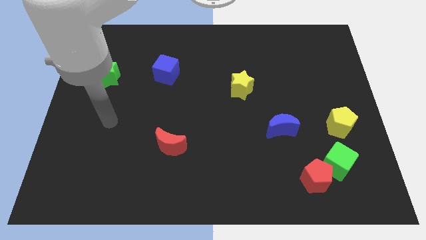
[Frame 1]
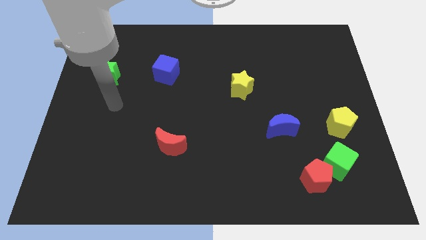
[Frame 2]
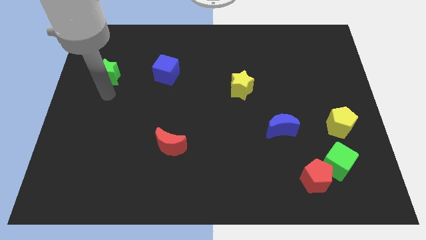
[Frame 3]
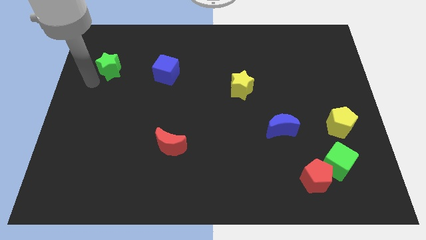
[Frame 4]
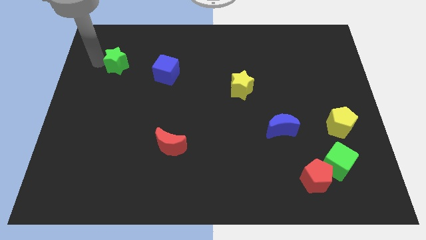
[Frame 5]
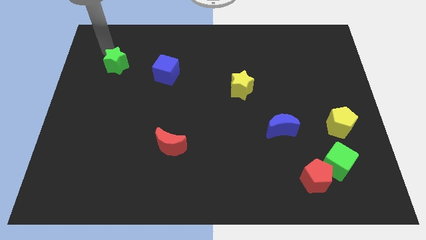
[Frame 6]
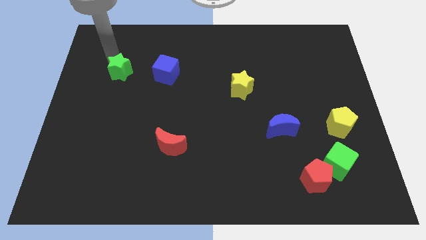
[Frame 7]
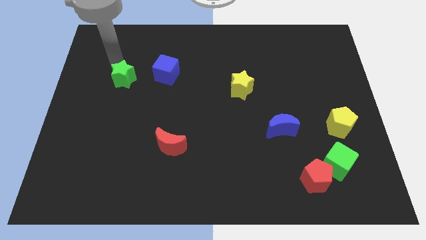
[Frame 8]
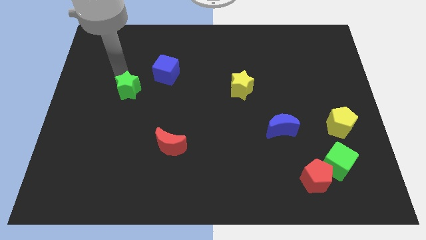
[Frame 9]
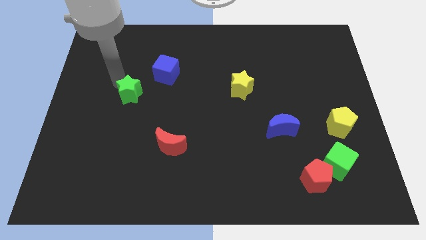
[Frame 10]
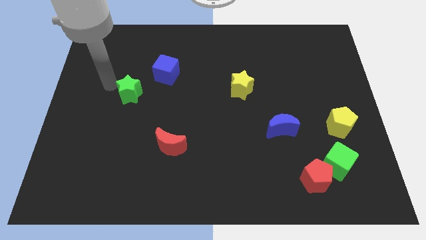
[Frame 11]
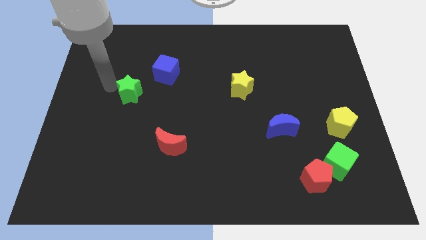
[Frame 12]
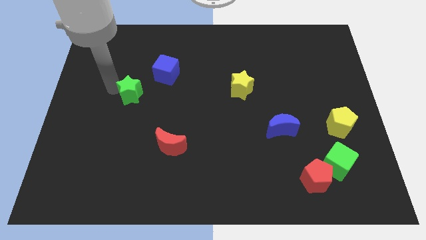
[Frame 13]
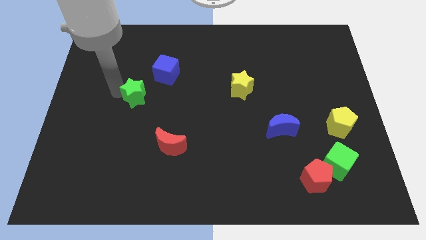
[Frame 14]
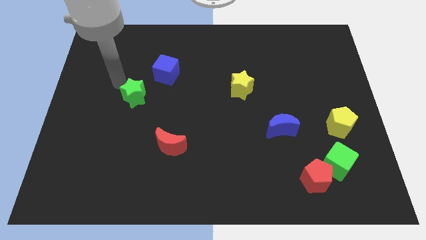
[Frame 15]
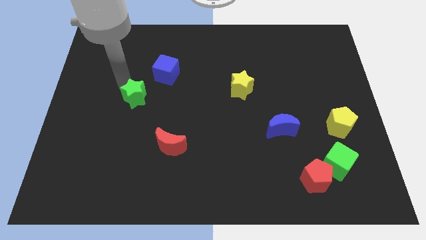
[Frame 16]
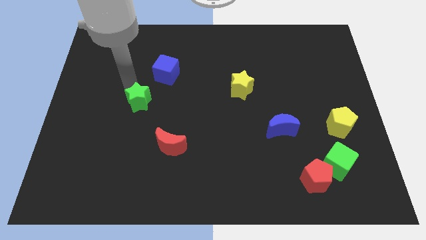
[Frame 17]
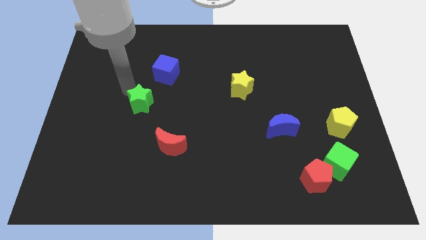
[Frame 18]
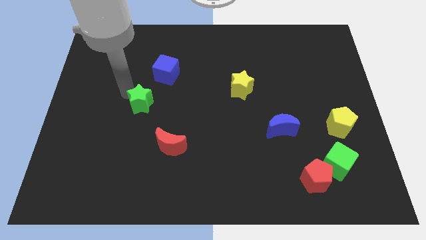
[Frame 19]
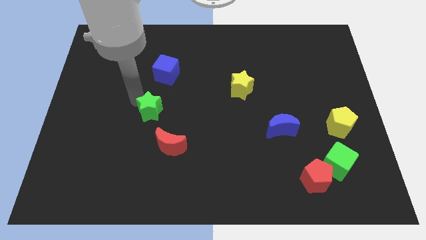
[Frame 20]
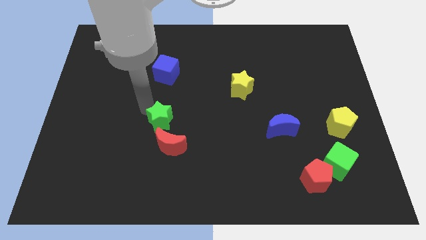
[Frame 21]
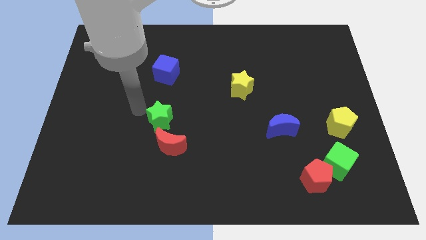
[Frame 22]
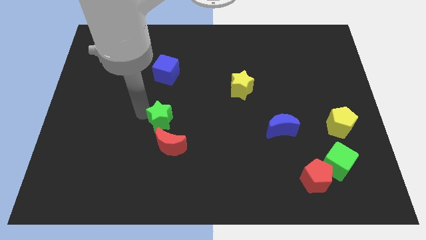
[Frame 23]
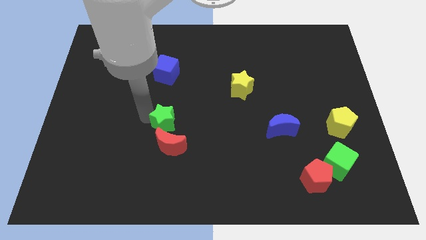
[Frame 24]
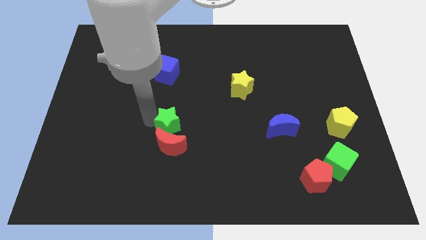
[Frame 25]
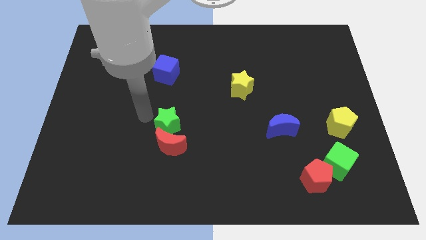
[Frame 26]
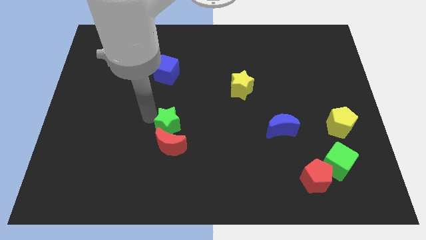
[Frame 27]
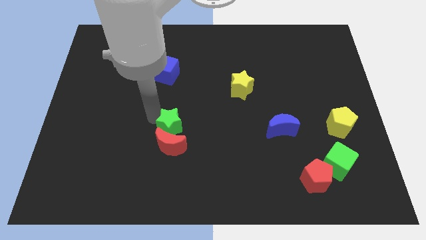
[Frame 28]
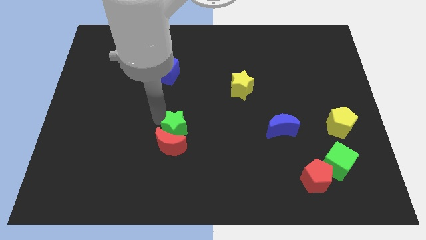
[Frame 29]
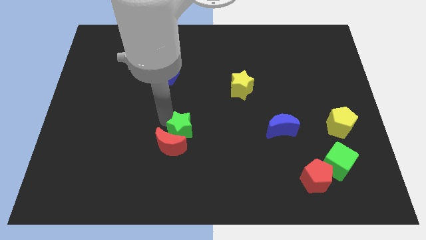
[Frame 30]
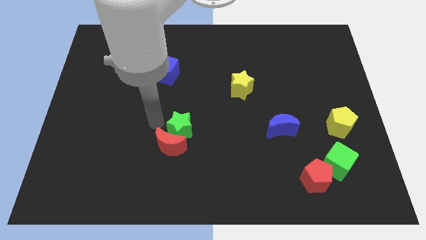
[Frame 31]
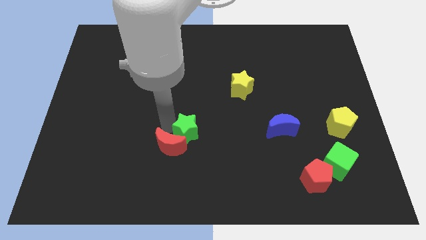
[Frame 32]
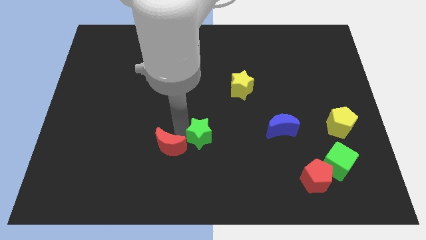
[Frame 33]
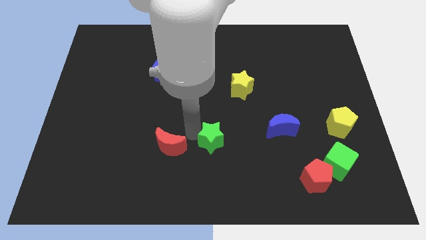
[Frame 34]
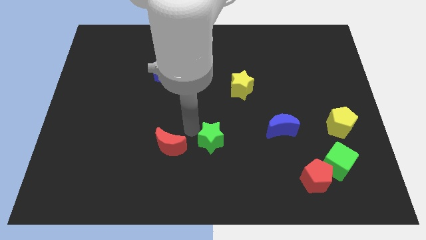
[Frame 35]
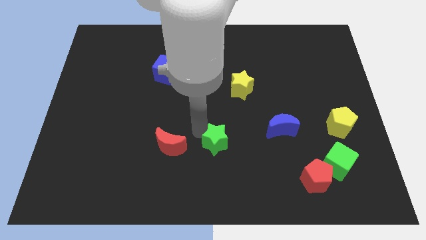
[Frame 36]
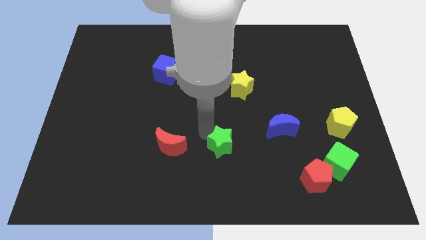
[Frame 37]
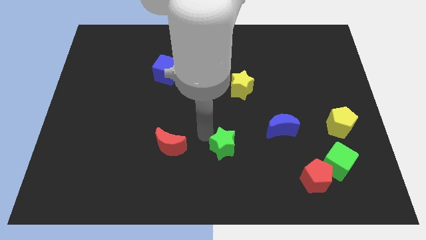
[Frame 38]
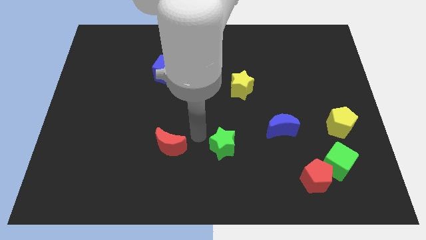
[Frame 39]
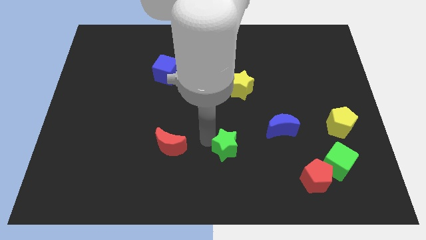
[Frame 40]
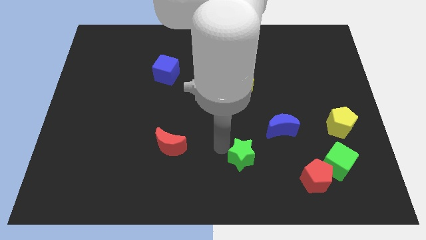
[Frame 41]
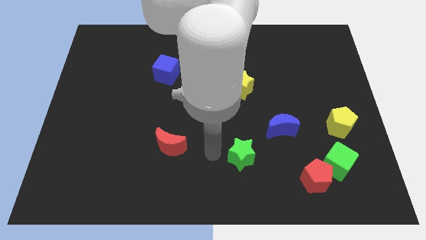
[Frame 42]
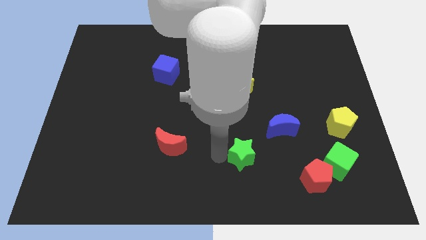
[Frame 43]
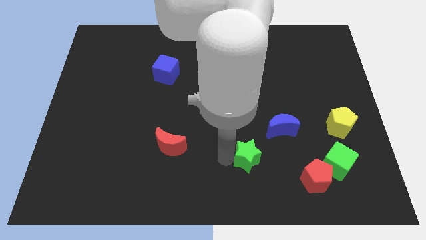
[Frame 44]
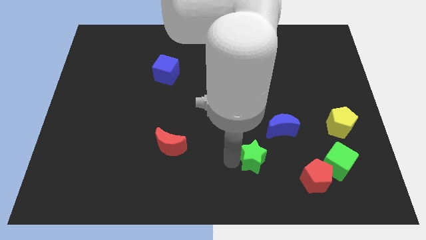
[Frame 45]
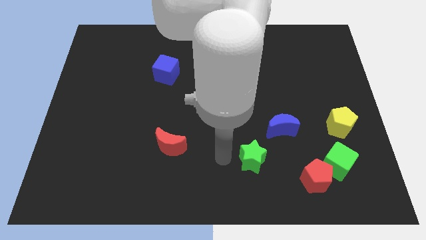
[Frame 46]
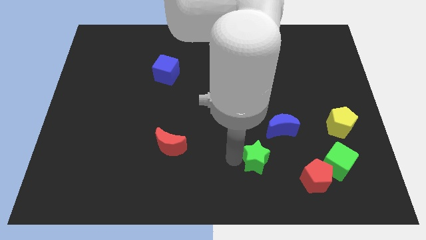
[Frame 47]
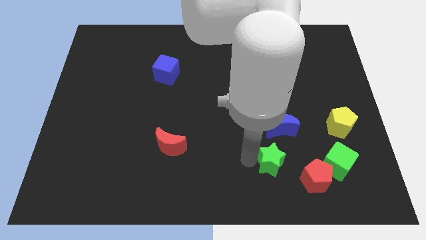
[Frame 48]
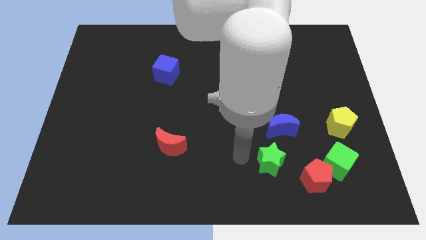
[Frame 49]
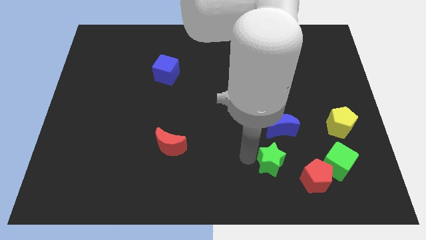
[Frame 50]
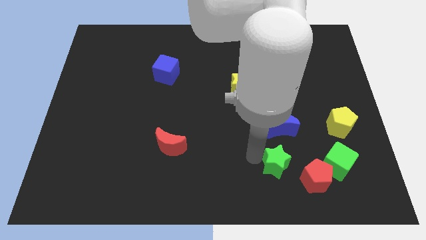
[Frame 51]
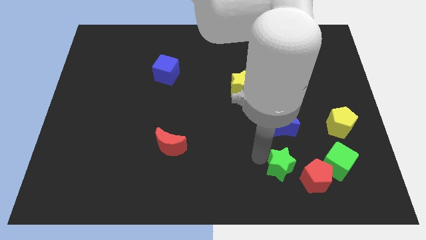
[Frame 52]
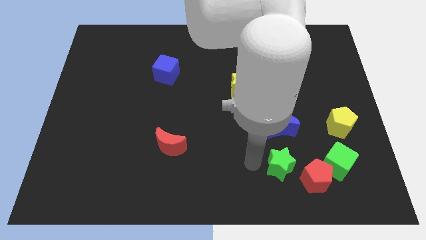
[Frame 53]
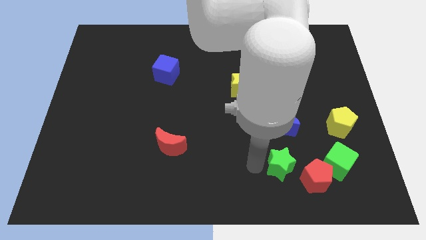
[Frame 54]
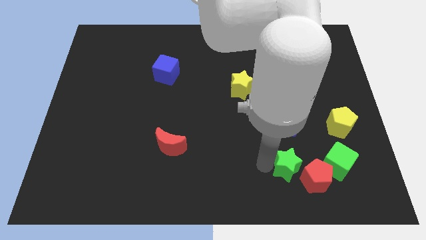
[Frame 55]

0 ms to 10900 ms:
put the green star next to the red pentagon

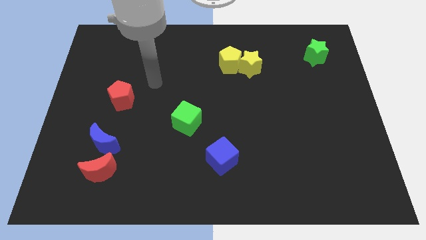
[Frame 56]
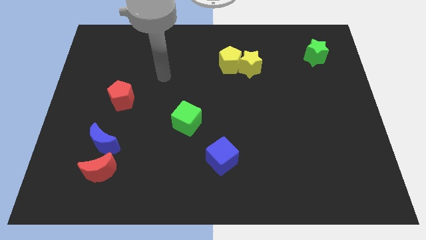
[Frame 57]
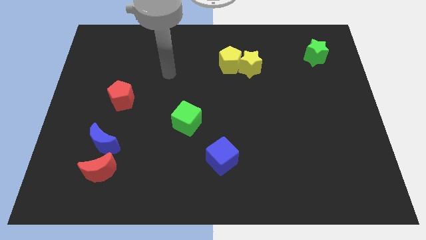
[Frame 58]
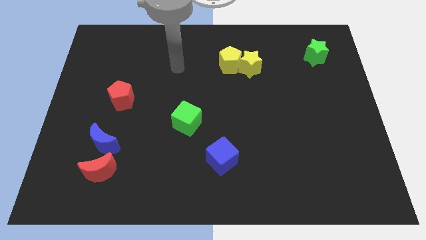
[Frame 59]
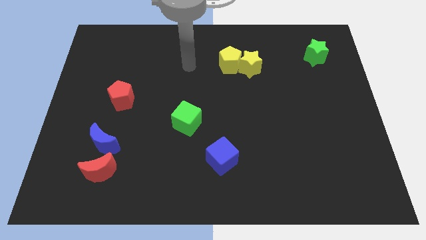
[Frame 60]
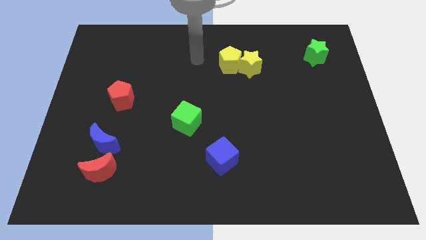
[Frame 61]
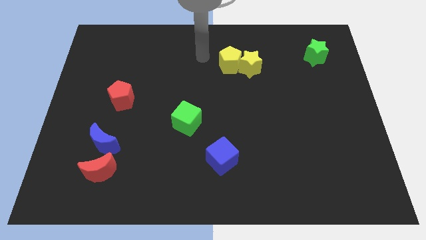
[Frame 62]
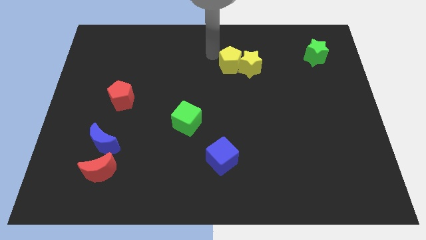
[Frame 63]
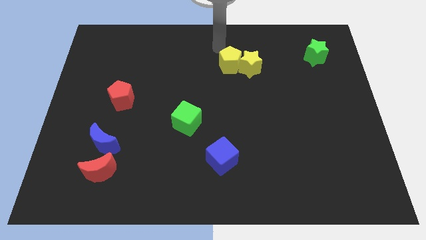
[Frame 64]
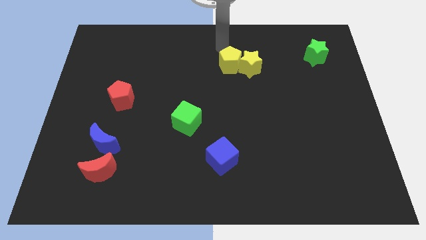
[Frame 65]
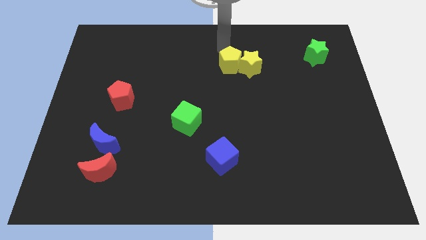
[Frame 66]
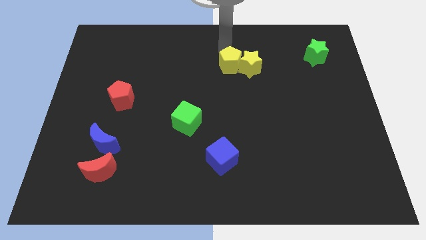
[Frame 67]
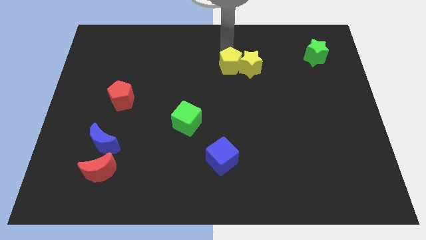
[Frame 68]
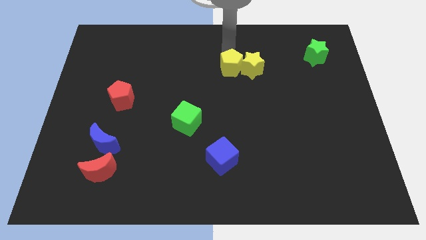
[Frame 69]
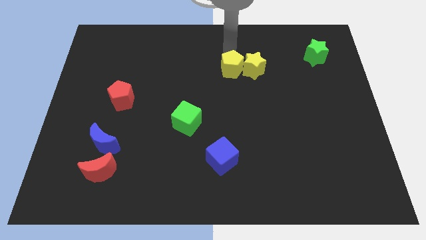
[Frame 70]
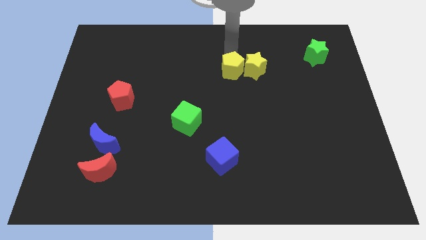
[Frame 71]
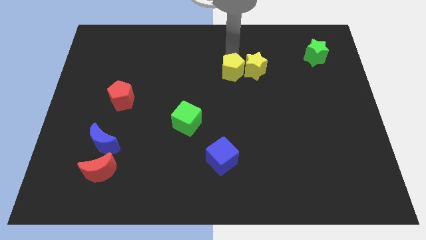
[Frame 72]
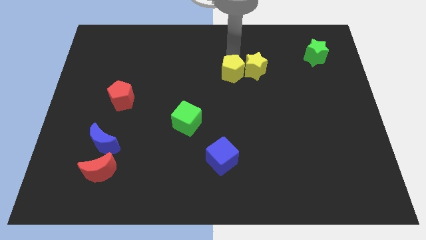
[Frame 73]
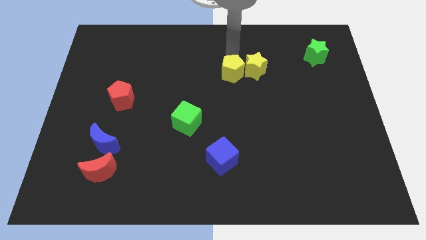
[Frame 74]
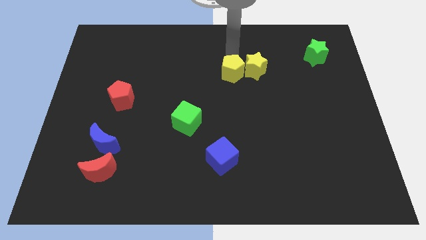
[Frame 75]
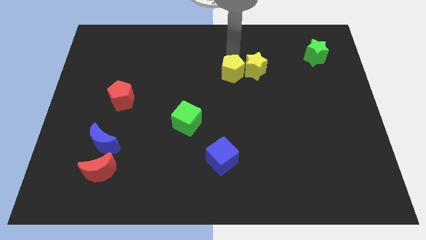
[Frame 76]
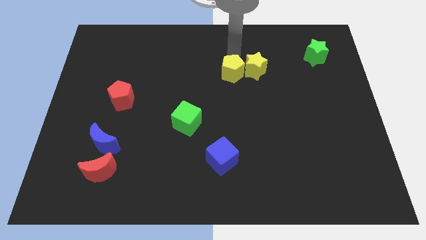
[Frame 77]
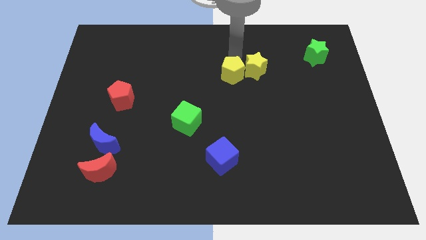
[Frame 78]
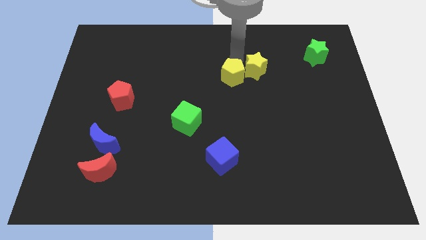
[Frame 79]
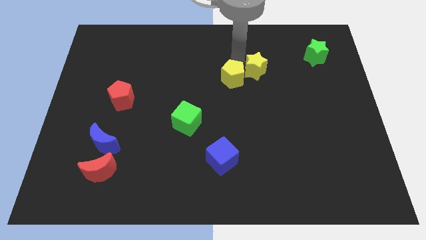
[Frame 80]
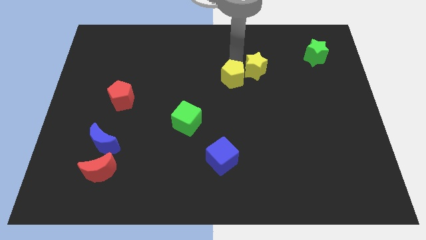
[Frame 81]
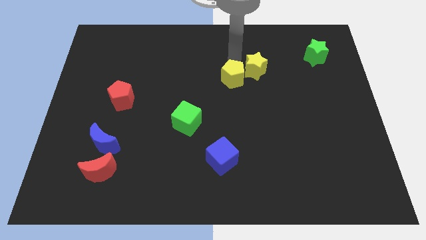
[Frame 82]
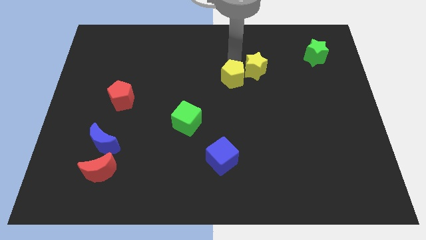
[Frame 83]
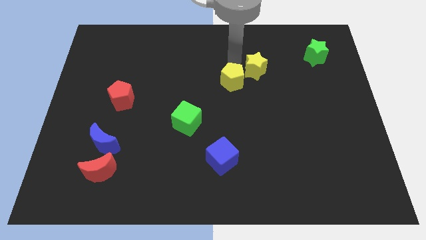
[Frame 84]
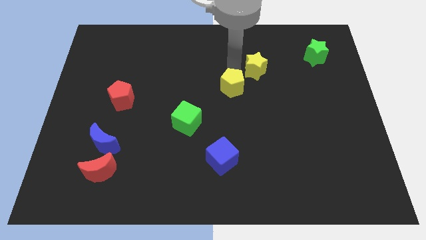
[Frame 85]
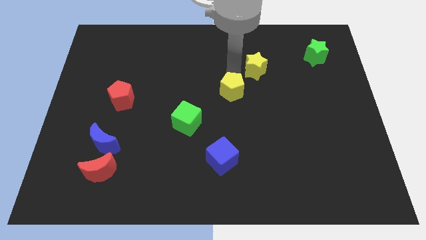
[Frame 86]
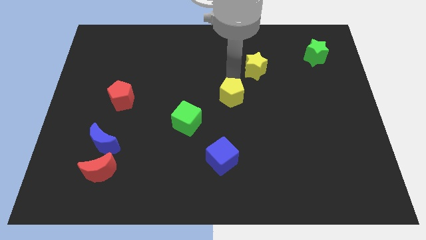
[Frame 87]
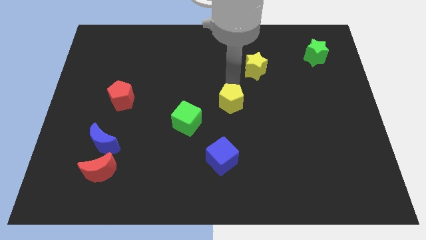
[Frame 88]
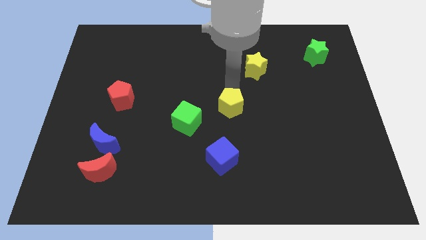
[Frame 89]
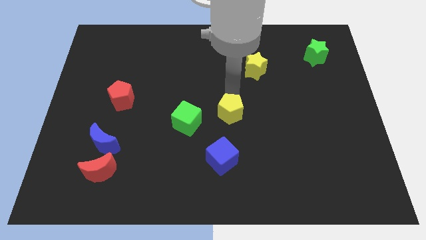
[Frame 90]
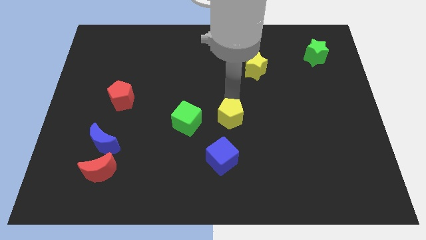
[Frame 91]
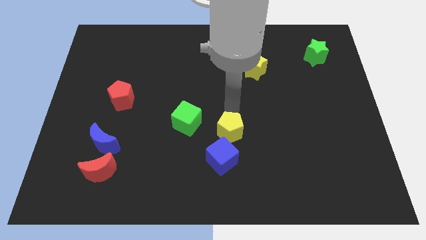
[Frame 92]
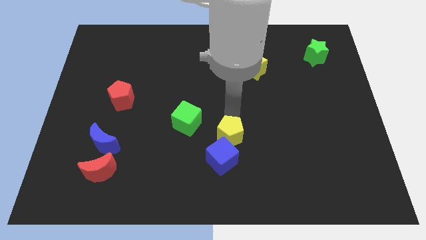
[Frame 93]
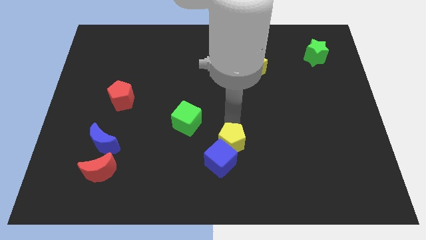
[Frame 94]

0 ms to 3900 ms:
put the yellow pentagon to the blue cube
